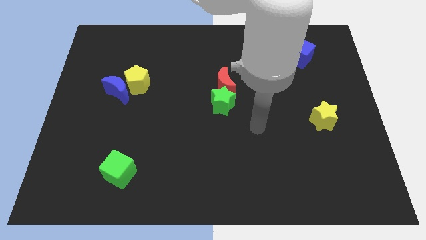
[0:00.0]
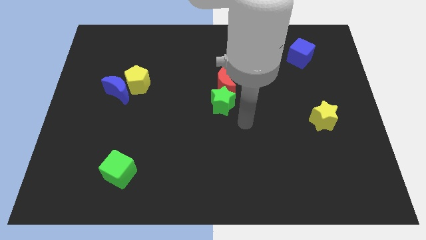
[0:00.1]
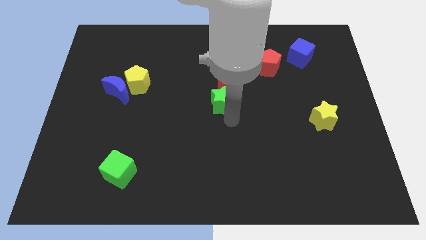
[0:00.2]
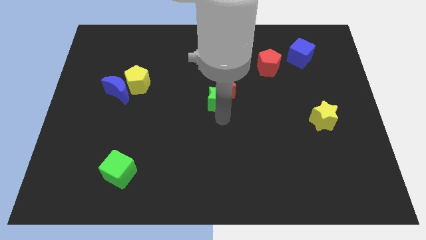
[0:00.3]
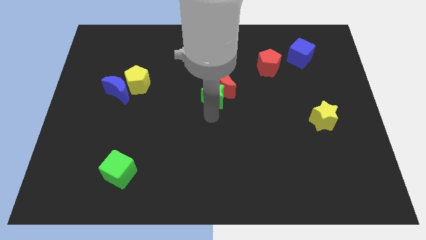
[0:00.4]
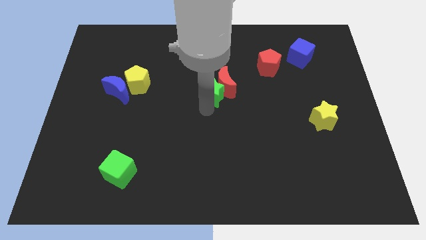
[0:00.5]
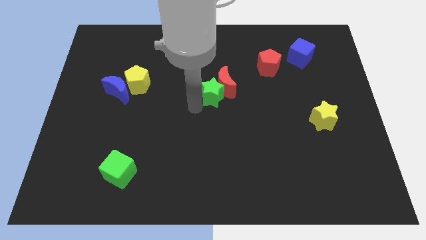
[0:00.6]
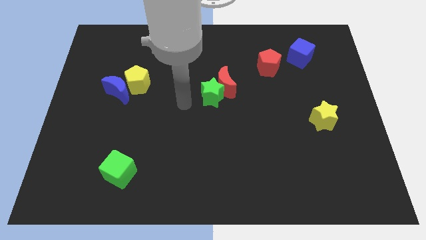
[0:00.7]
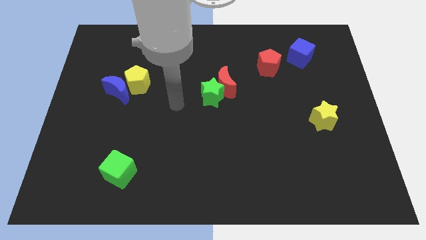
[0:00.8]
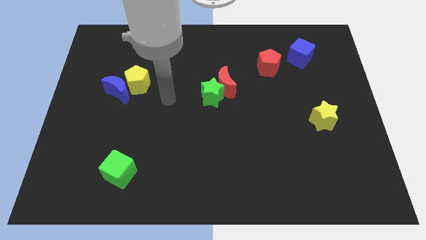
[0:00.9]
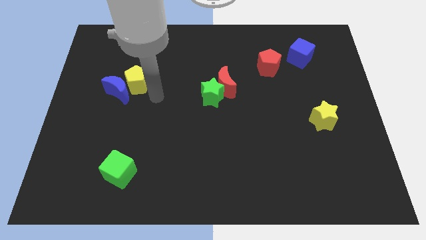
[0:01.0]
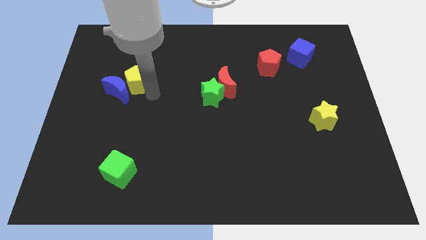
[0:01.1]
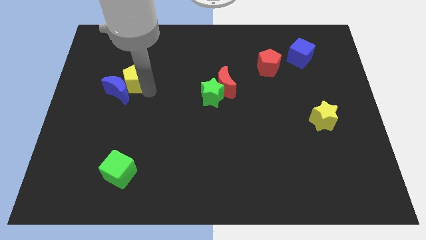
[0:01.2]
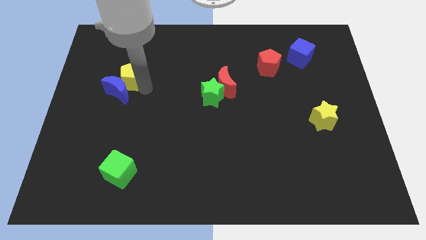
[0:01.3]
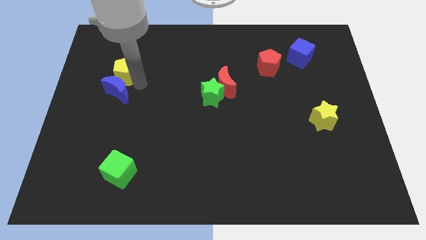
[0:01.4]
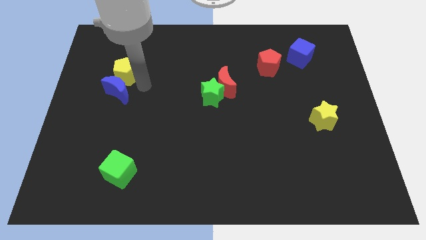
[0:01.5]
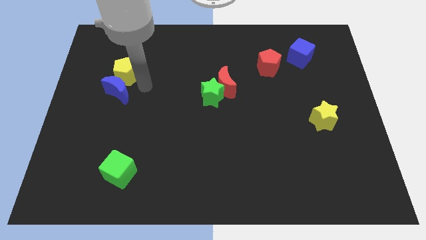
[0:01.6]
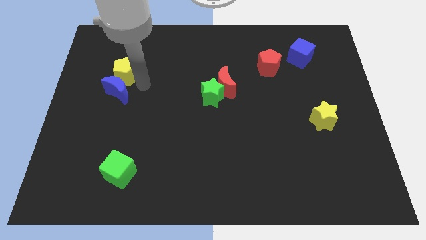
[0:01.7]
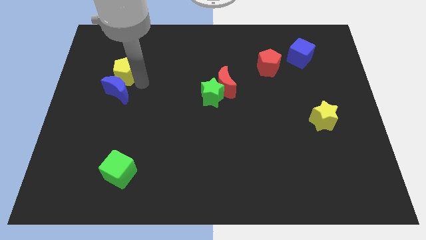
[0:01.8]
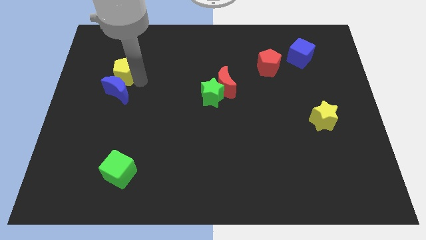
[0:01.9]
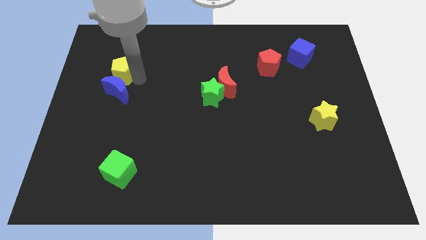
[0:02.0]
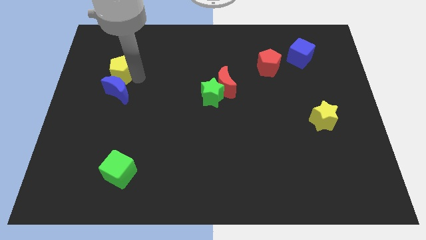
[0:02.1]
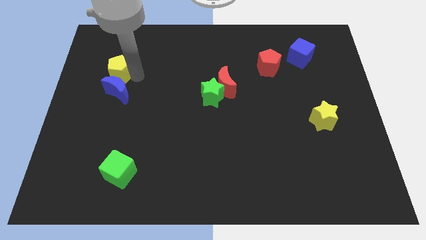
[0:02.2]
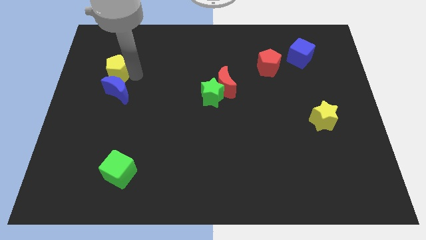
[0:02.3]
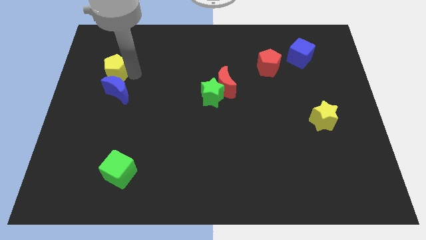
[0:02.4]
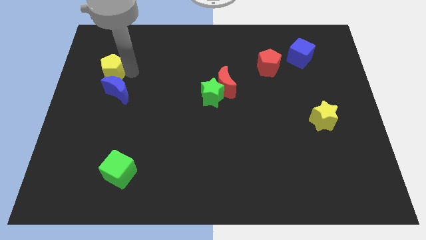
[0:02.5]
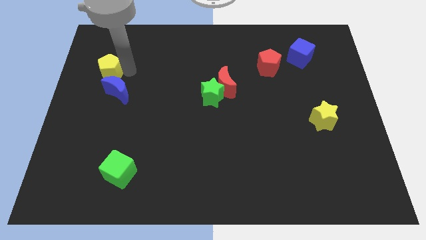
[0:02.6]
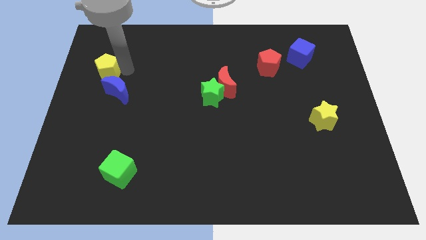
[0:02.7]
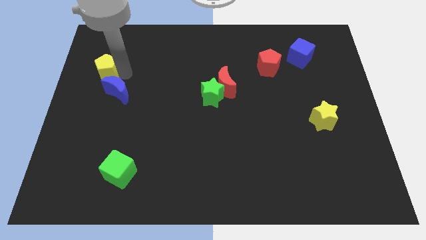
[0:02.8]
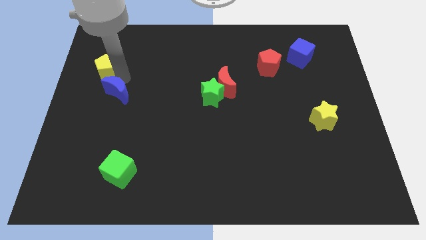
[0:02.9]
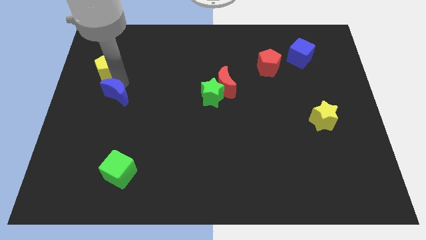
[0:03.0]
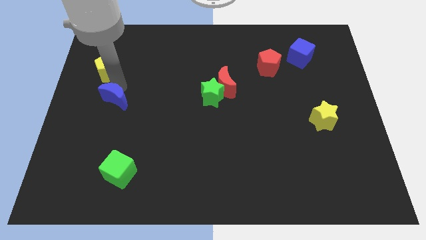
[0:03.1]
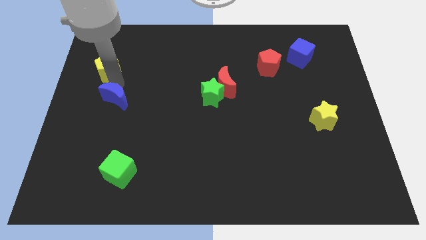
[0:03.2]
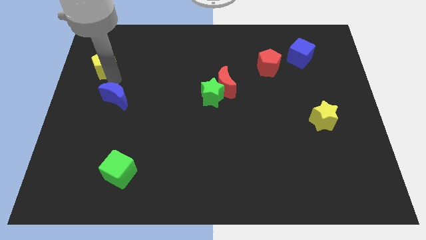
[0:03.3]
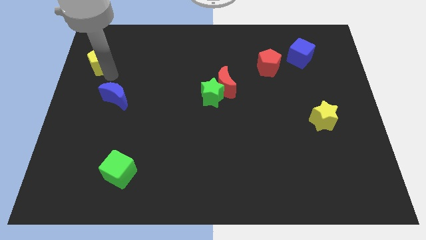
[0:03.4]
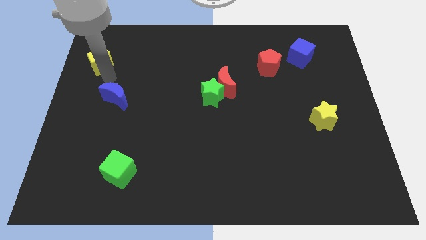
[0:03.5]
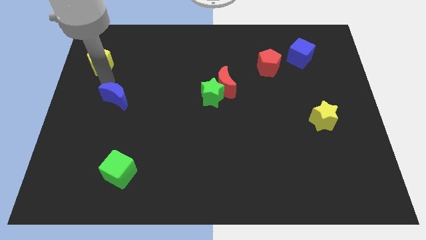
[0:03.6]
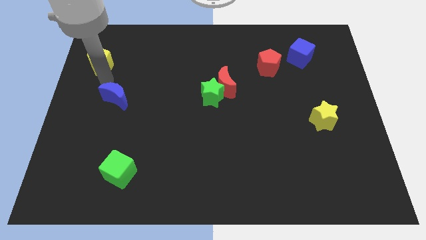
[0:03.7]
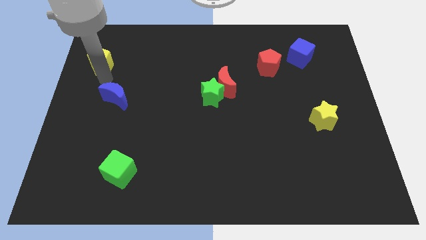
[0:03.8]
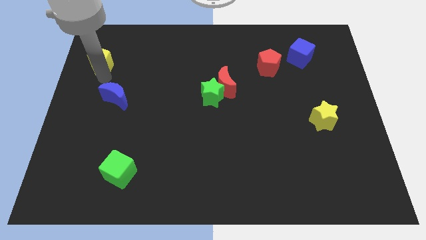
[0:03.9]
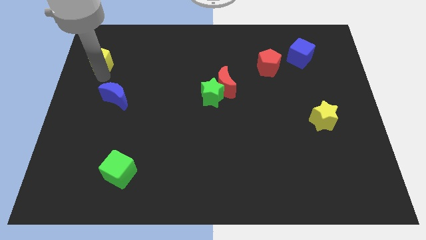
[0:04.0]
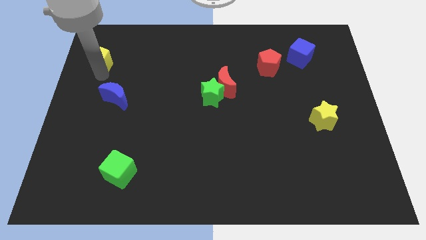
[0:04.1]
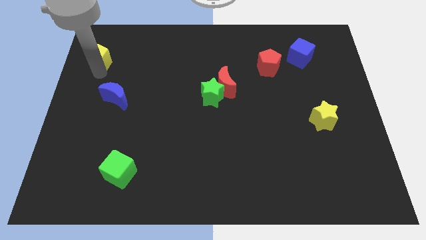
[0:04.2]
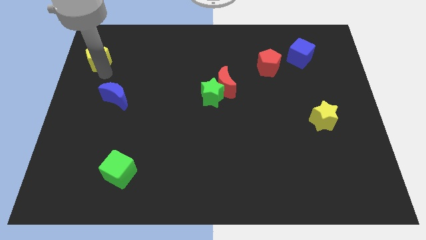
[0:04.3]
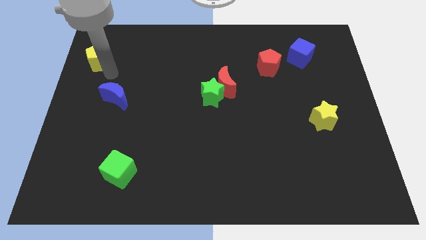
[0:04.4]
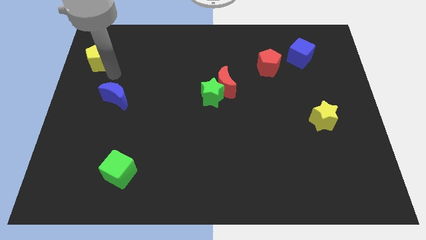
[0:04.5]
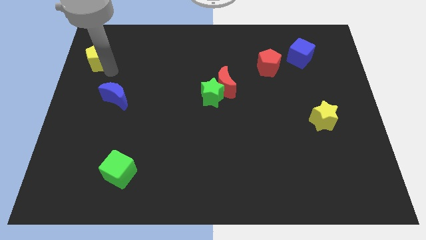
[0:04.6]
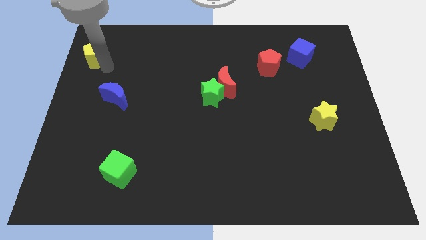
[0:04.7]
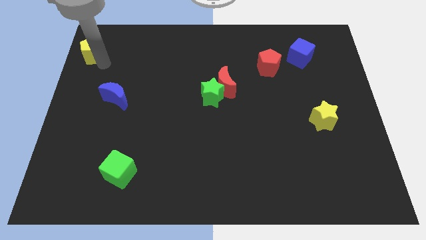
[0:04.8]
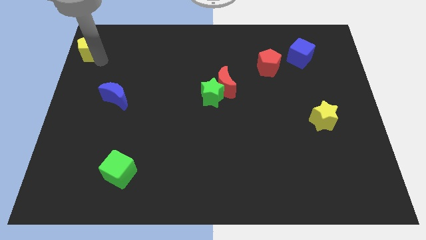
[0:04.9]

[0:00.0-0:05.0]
put the yellow pentagon to the top left of the board

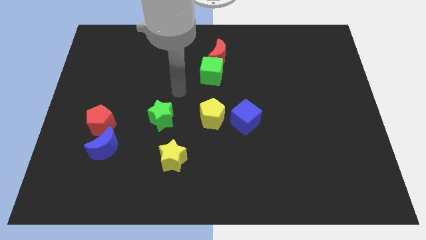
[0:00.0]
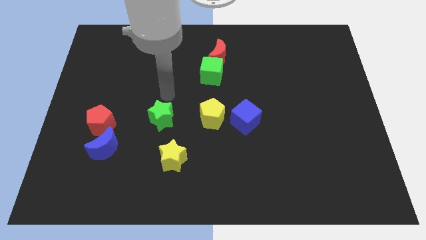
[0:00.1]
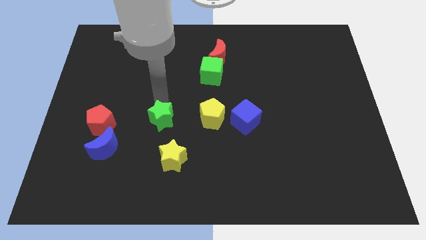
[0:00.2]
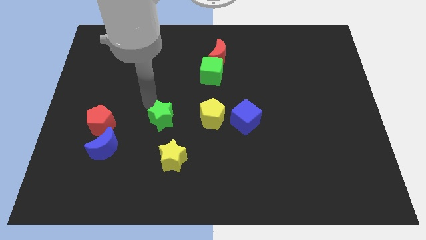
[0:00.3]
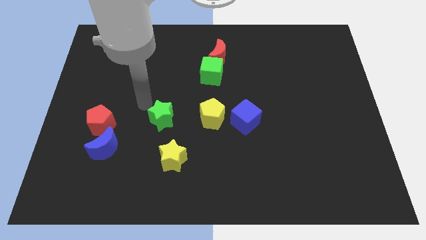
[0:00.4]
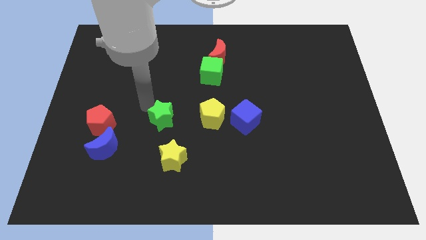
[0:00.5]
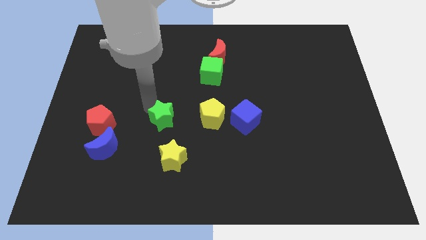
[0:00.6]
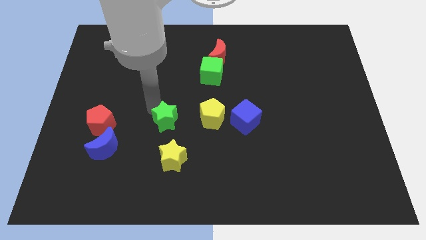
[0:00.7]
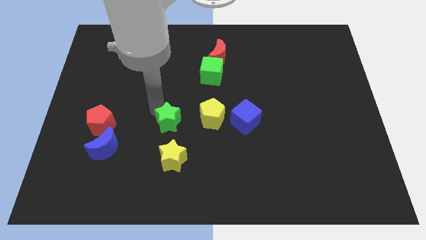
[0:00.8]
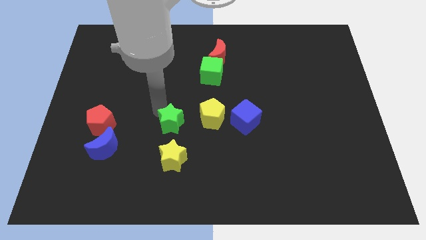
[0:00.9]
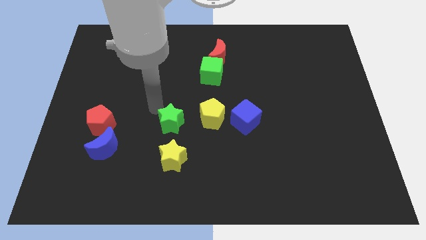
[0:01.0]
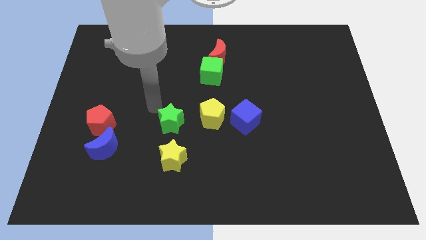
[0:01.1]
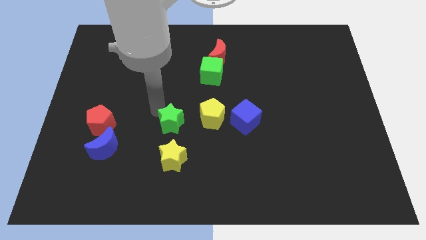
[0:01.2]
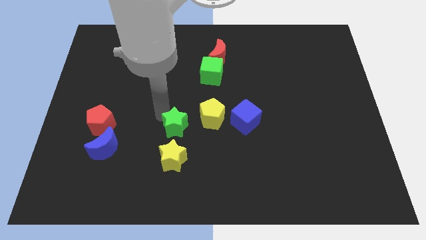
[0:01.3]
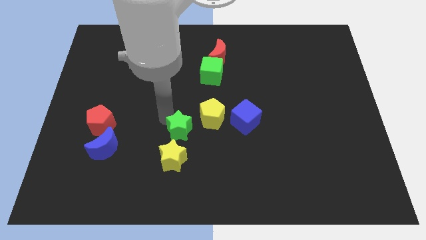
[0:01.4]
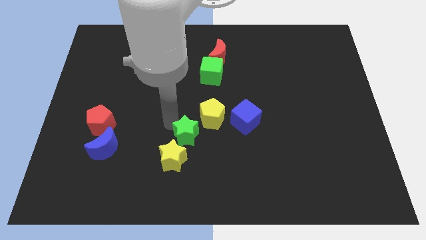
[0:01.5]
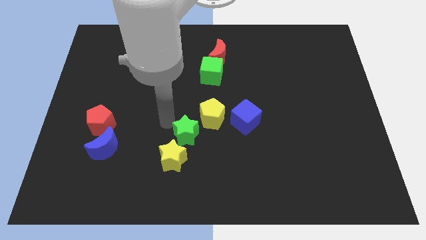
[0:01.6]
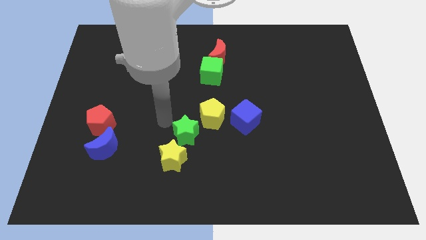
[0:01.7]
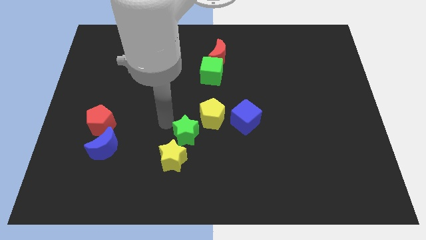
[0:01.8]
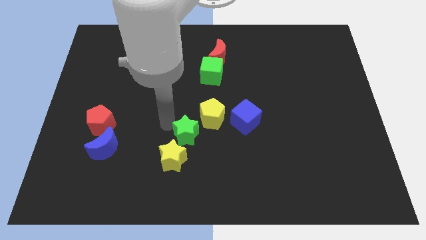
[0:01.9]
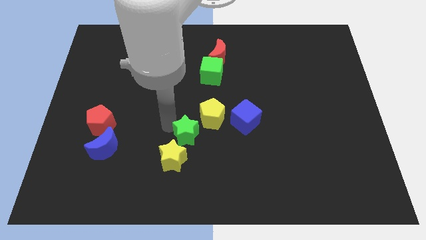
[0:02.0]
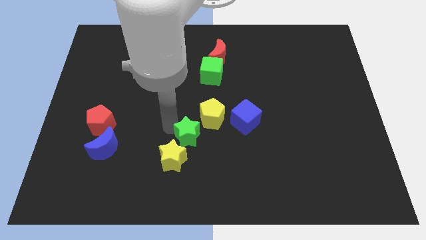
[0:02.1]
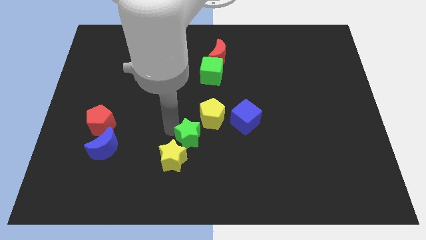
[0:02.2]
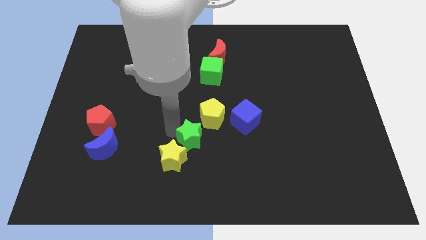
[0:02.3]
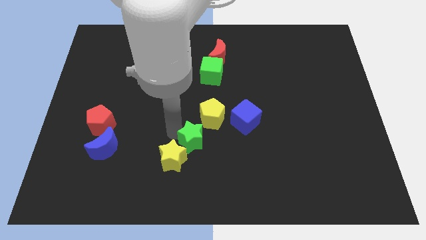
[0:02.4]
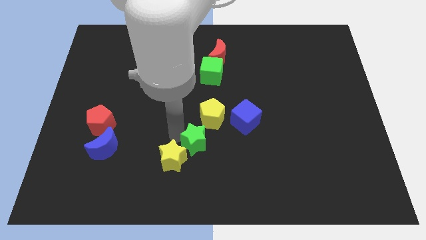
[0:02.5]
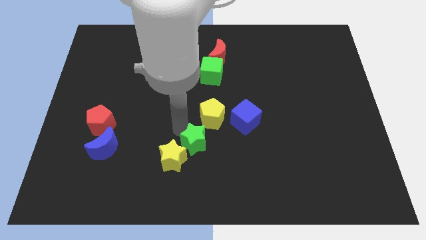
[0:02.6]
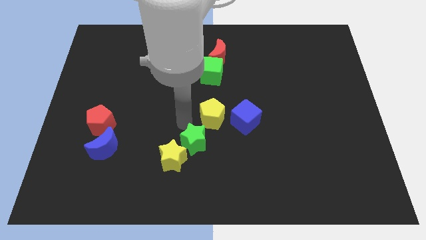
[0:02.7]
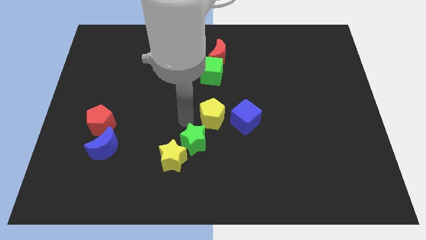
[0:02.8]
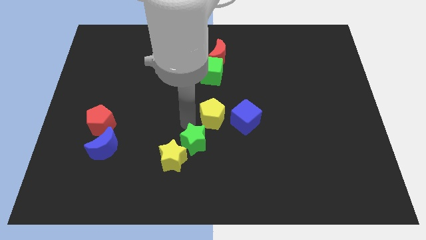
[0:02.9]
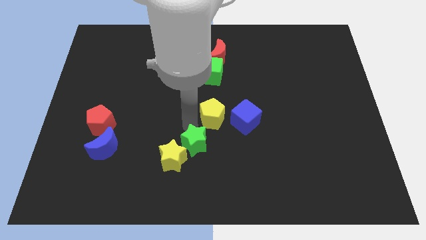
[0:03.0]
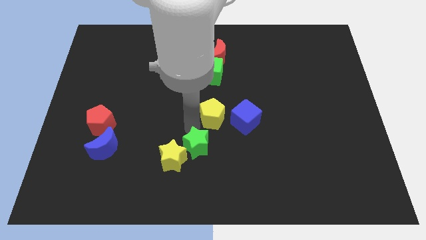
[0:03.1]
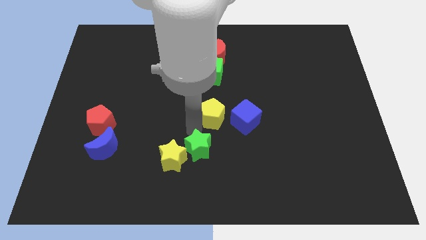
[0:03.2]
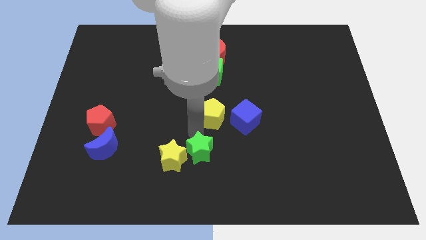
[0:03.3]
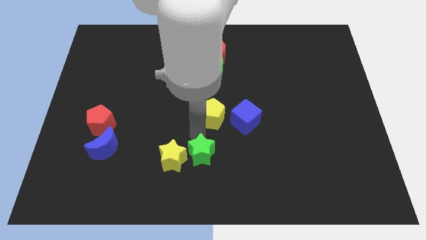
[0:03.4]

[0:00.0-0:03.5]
put the green star to the bottom side
